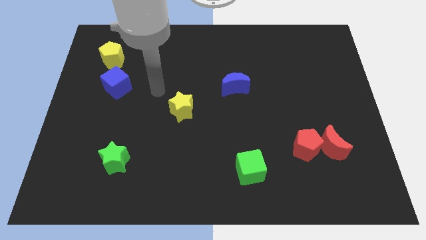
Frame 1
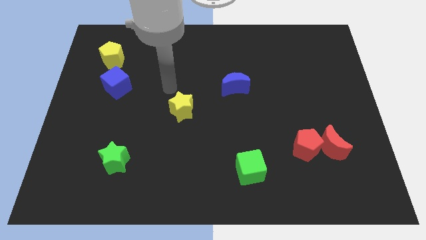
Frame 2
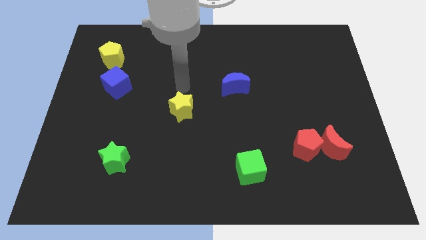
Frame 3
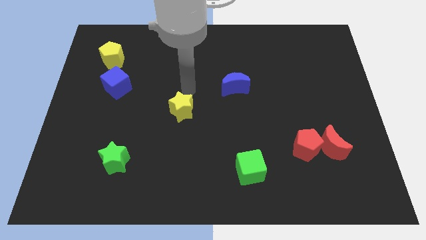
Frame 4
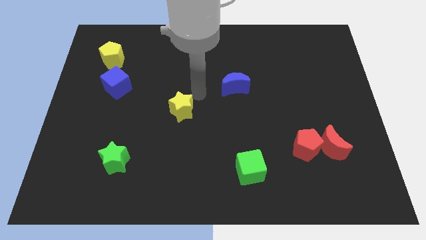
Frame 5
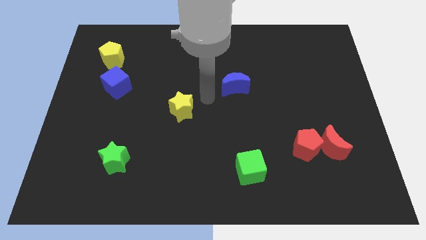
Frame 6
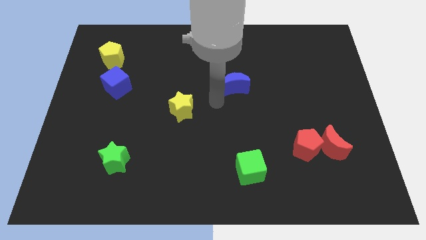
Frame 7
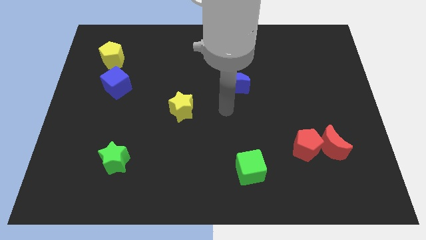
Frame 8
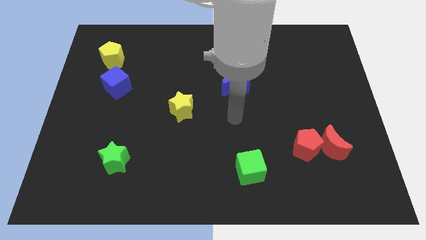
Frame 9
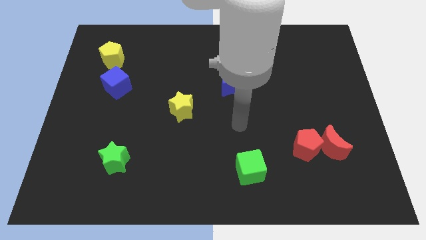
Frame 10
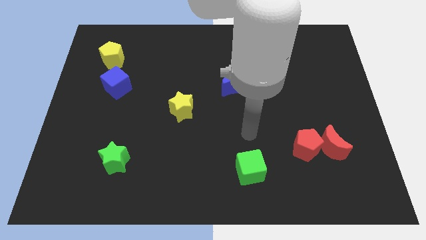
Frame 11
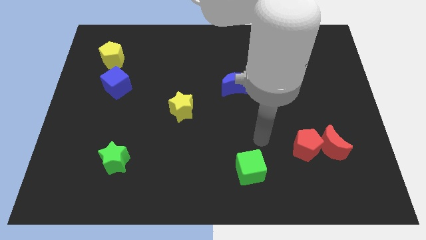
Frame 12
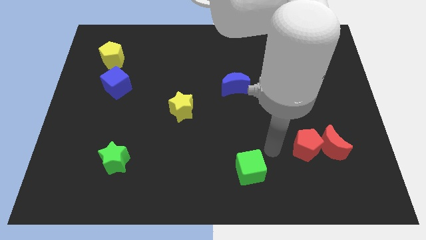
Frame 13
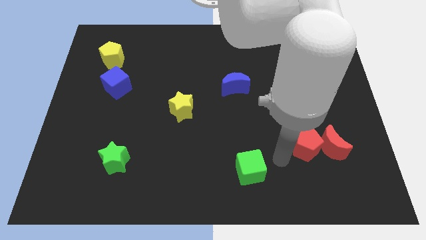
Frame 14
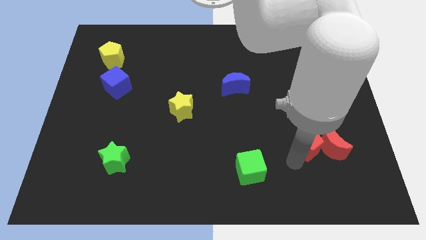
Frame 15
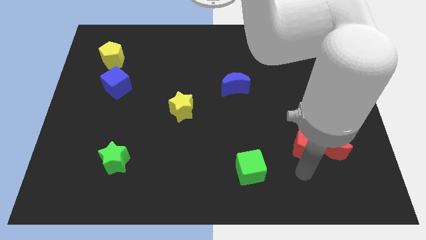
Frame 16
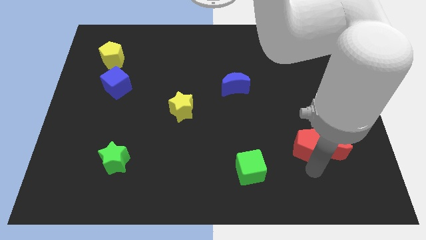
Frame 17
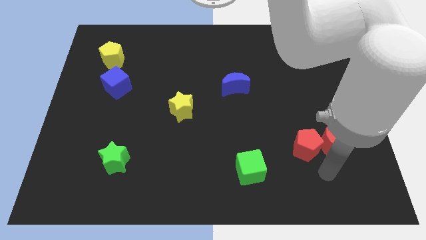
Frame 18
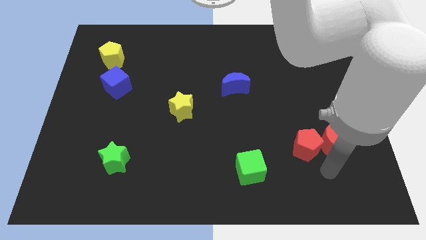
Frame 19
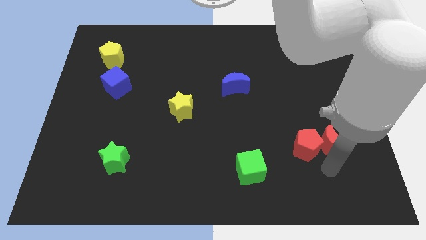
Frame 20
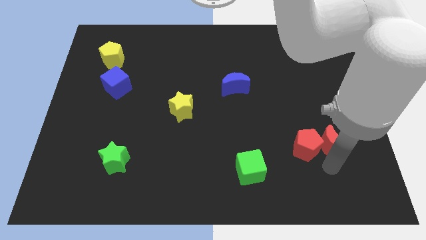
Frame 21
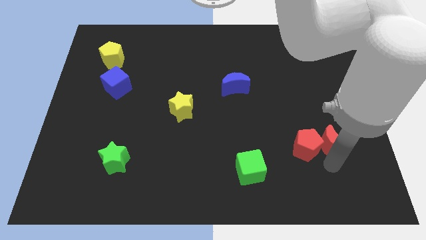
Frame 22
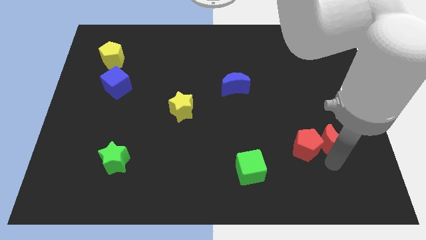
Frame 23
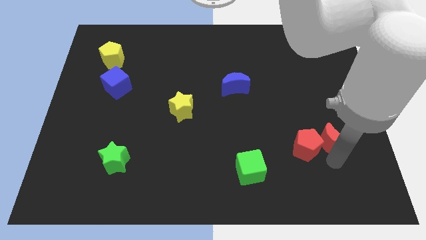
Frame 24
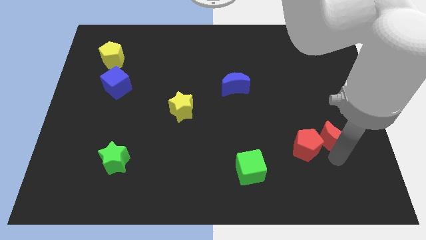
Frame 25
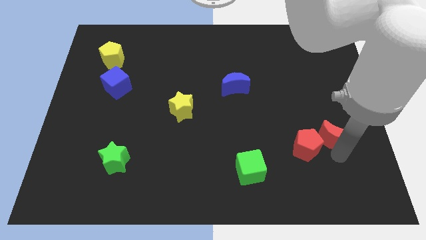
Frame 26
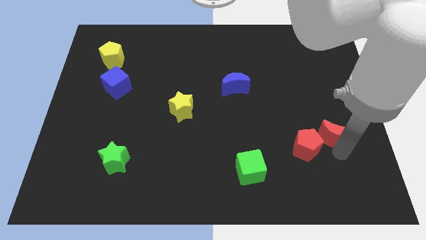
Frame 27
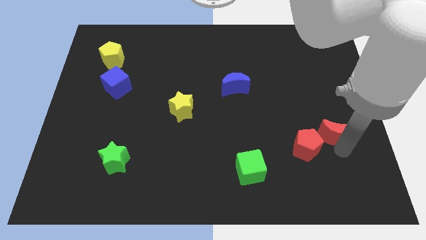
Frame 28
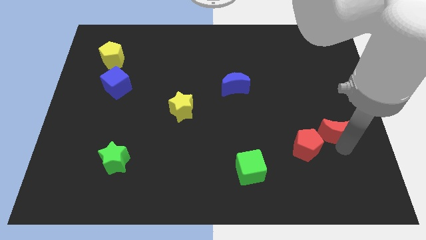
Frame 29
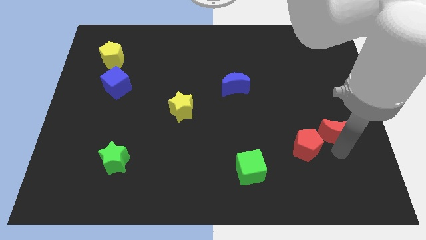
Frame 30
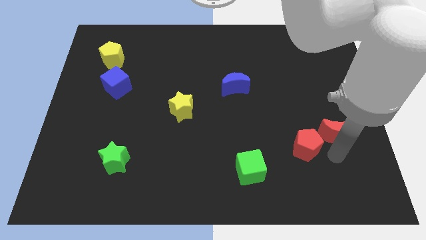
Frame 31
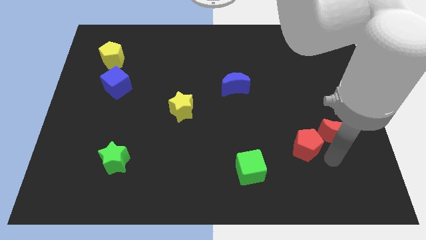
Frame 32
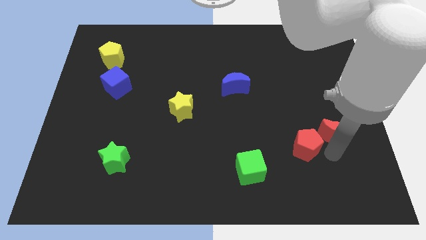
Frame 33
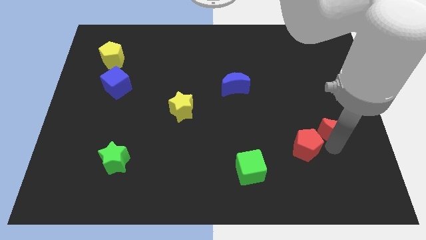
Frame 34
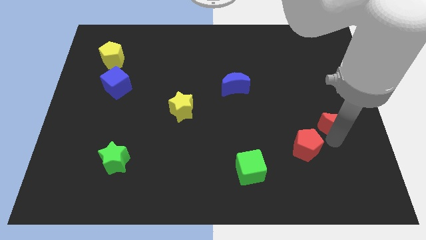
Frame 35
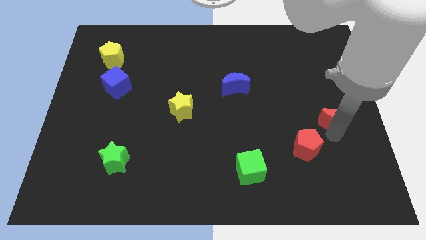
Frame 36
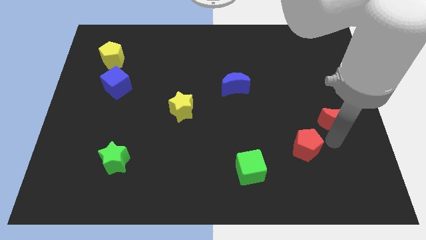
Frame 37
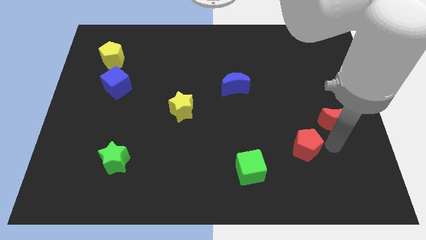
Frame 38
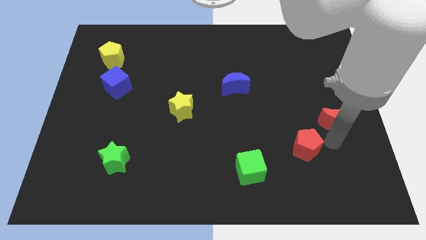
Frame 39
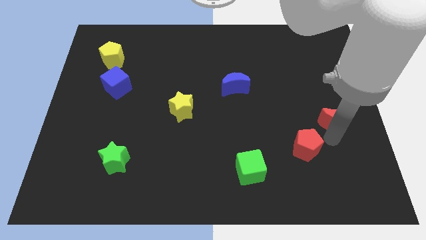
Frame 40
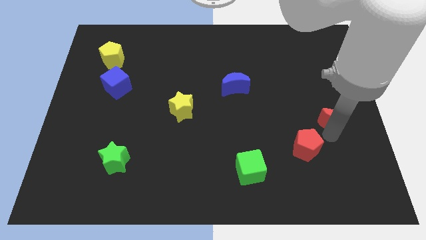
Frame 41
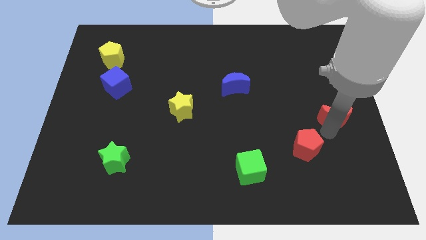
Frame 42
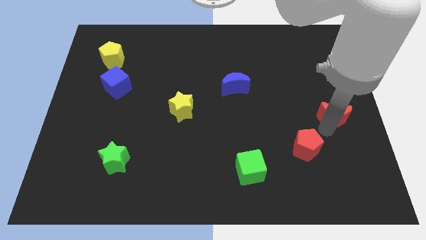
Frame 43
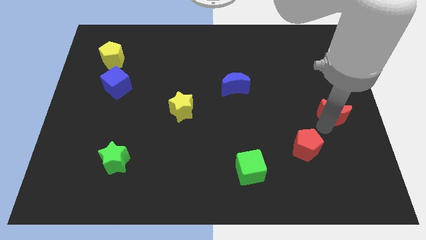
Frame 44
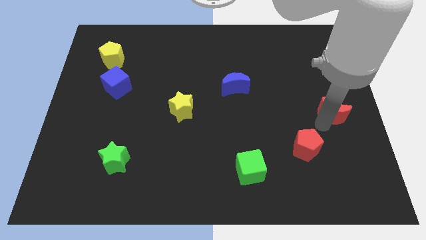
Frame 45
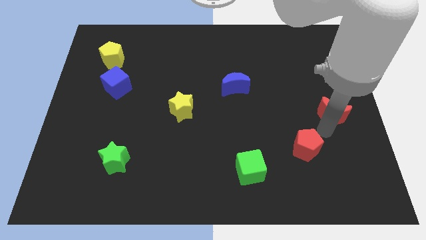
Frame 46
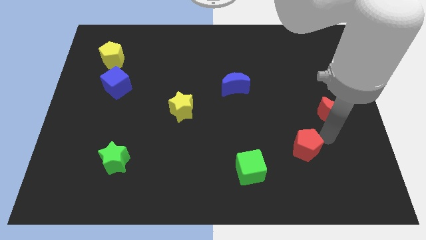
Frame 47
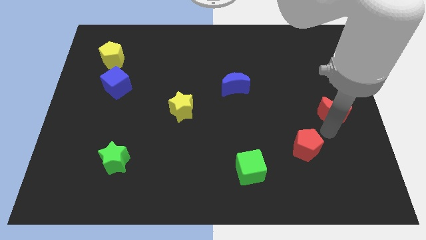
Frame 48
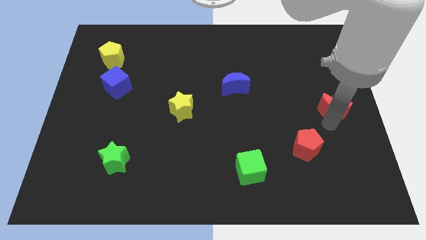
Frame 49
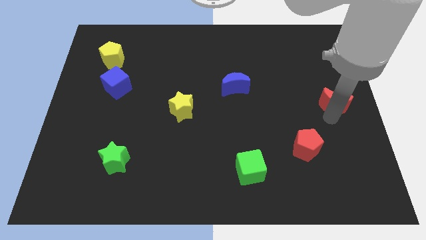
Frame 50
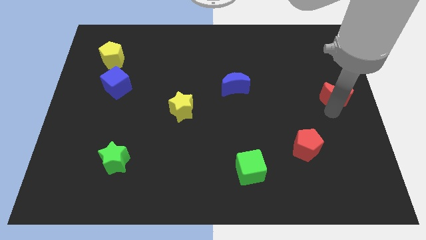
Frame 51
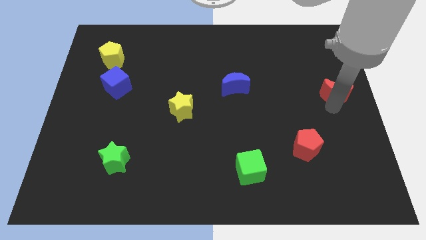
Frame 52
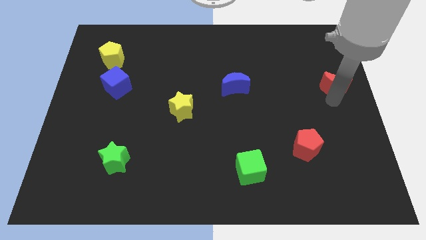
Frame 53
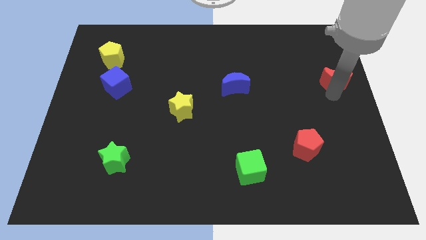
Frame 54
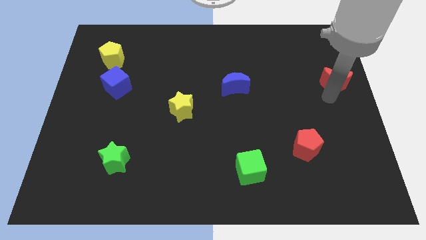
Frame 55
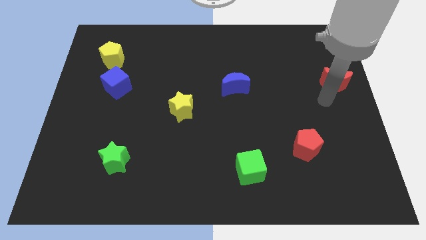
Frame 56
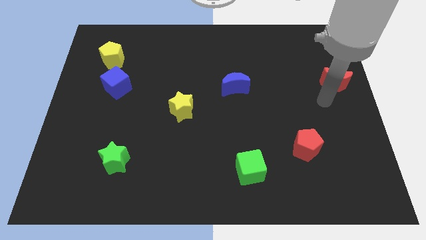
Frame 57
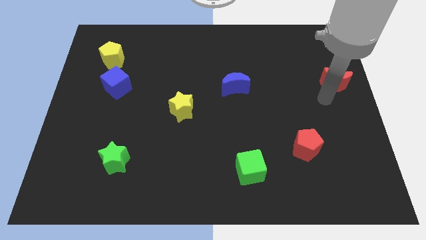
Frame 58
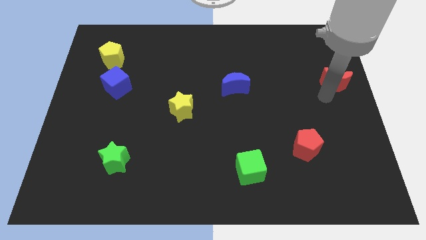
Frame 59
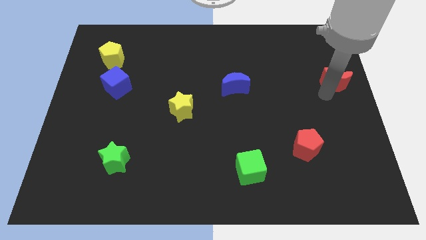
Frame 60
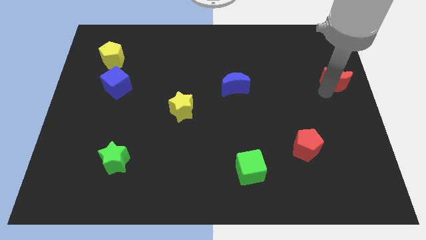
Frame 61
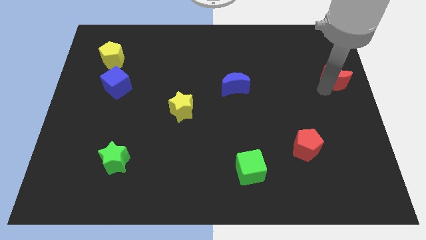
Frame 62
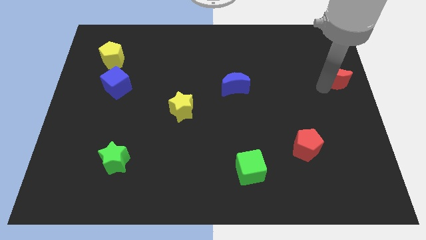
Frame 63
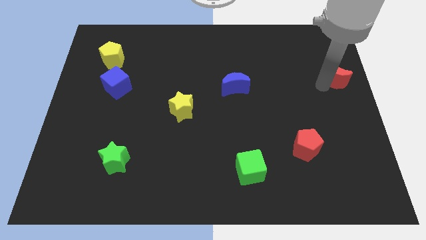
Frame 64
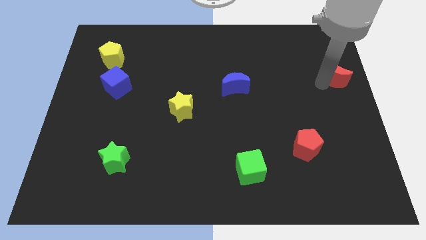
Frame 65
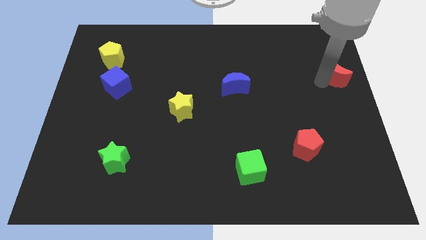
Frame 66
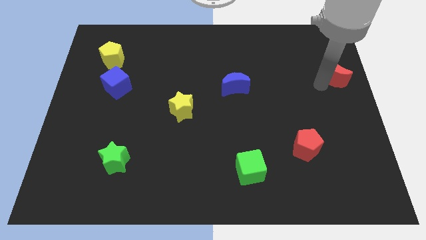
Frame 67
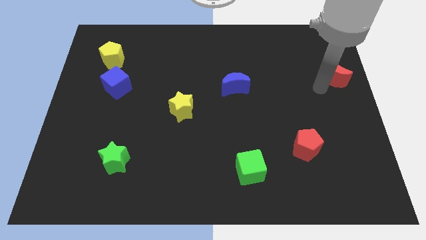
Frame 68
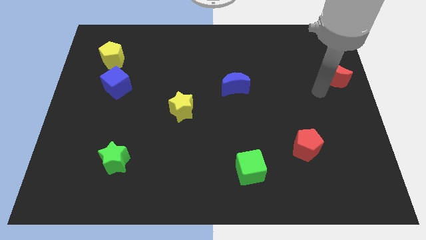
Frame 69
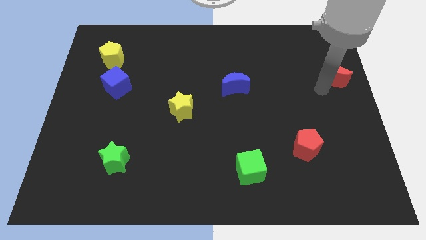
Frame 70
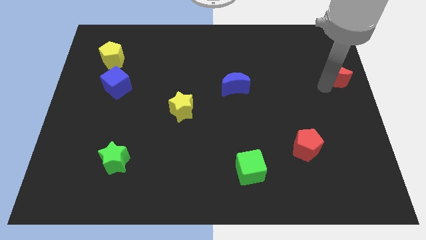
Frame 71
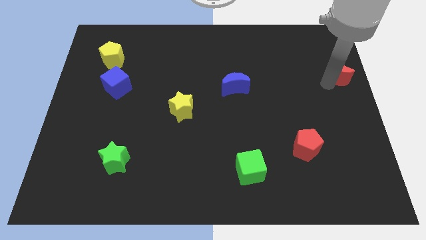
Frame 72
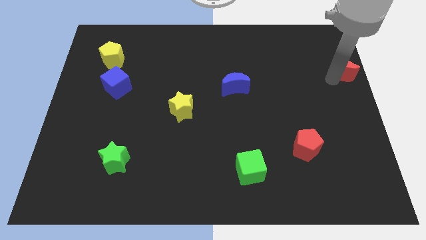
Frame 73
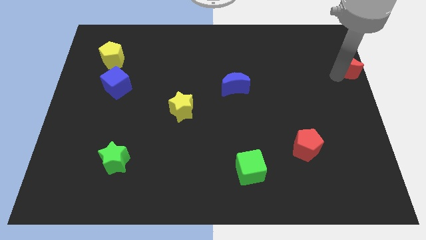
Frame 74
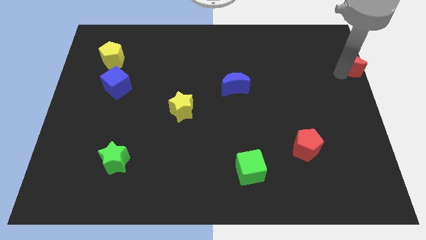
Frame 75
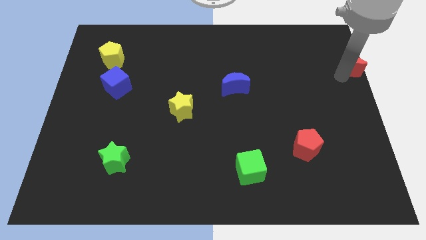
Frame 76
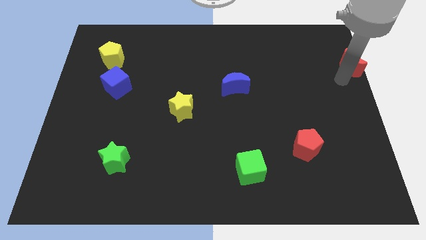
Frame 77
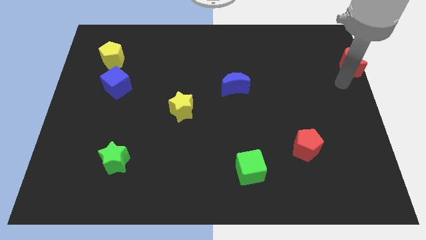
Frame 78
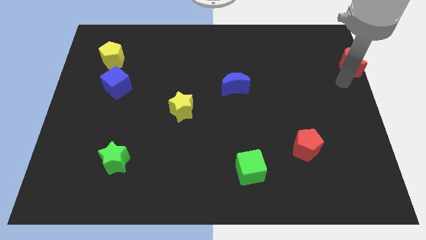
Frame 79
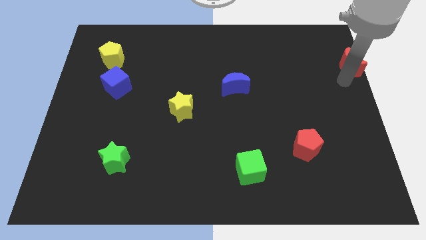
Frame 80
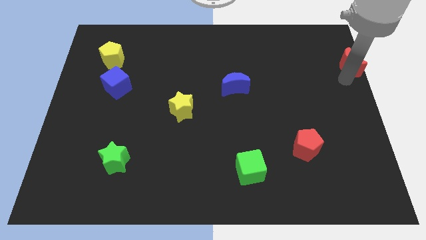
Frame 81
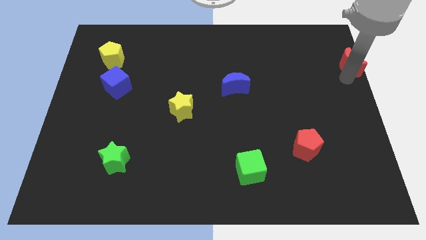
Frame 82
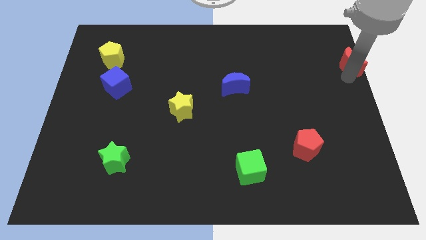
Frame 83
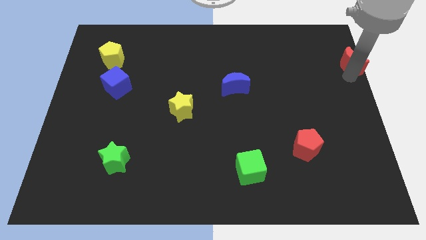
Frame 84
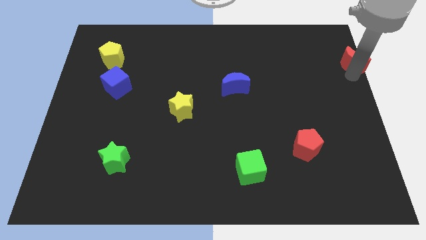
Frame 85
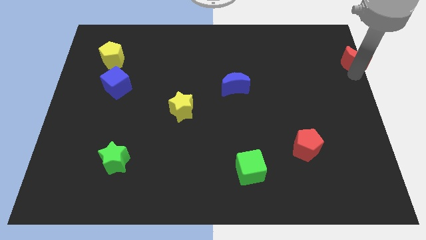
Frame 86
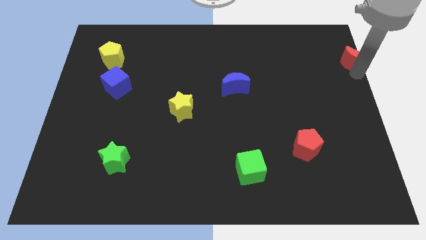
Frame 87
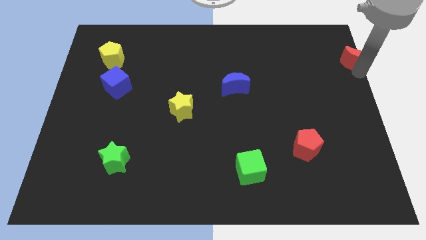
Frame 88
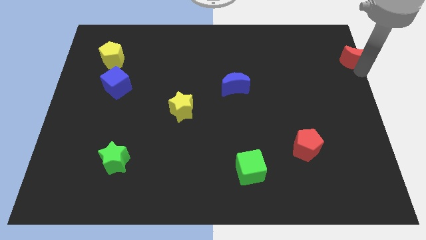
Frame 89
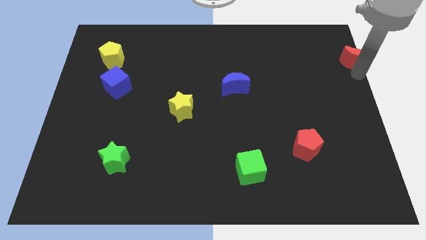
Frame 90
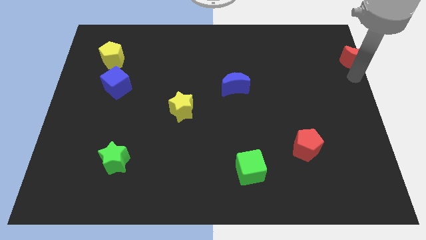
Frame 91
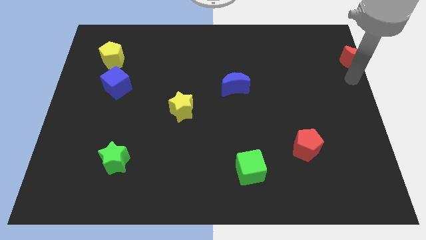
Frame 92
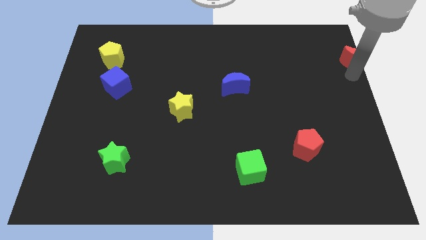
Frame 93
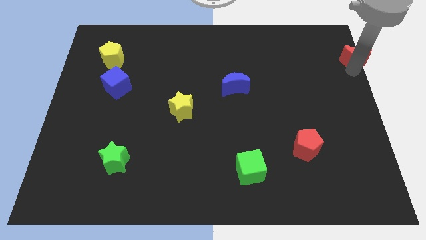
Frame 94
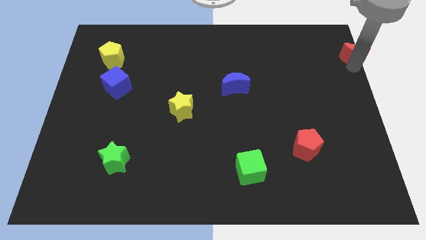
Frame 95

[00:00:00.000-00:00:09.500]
push the red moon to the upper right corner
